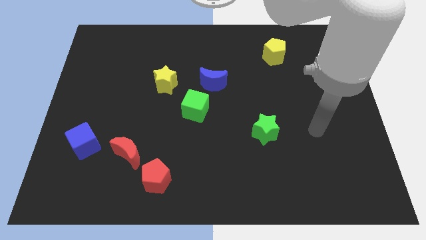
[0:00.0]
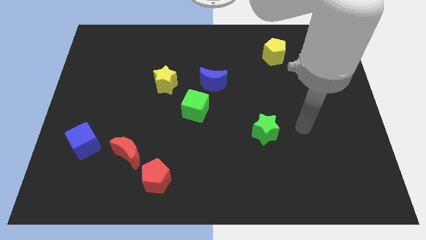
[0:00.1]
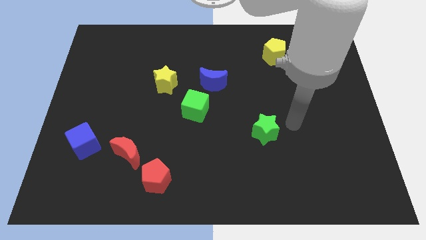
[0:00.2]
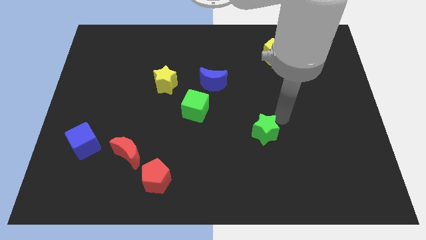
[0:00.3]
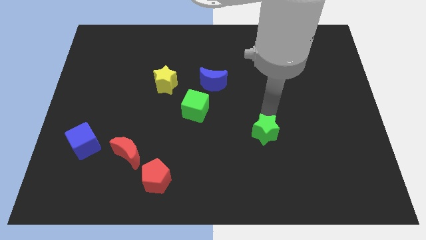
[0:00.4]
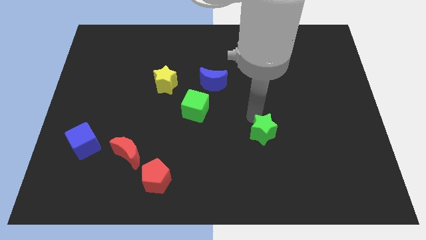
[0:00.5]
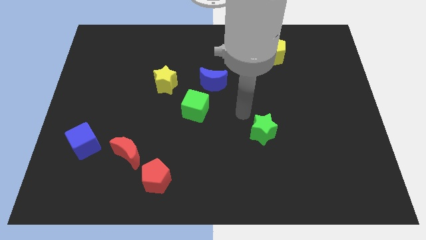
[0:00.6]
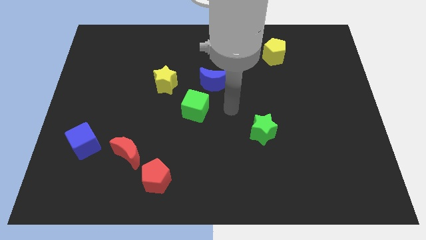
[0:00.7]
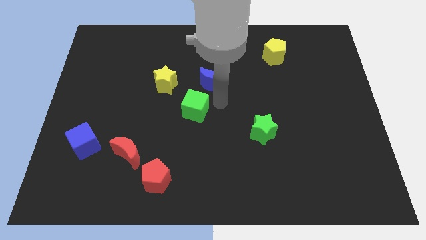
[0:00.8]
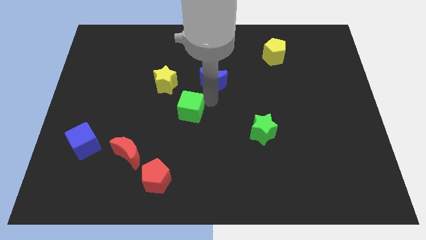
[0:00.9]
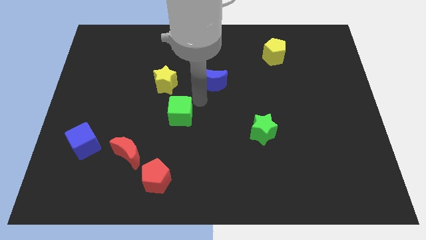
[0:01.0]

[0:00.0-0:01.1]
separate the blue moon from the green cube

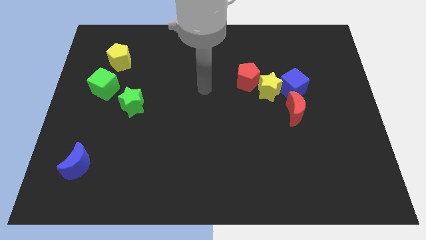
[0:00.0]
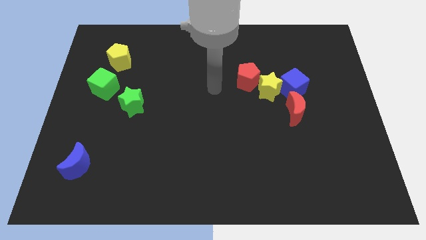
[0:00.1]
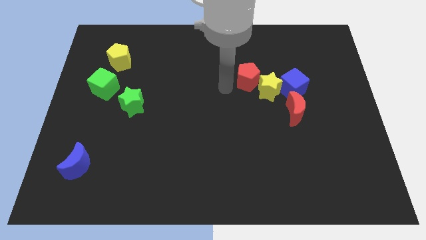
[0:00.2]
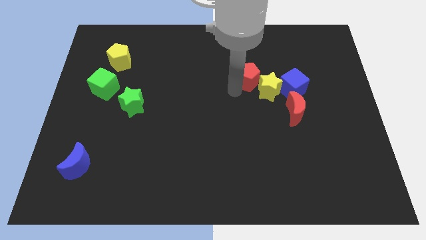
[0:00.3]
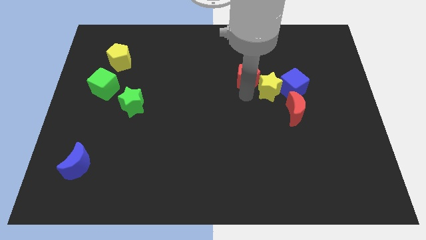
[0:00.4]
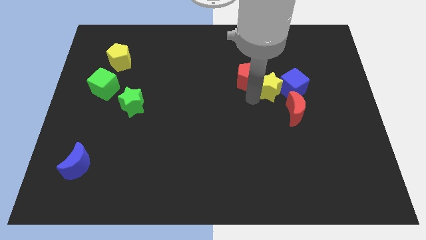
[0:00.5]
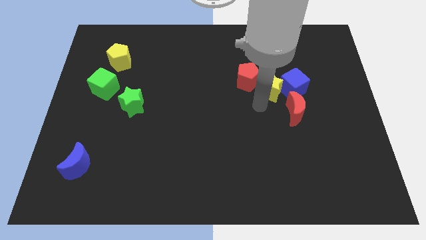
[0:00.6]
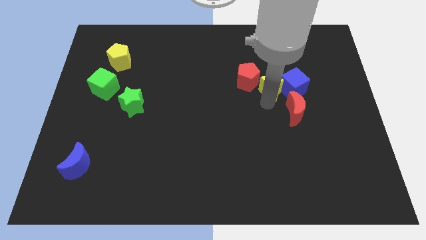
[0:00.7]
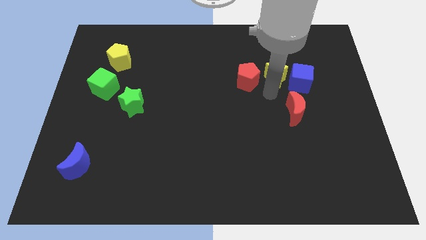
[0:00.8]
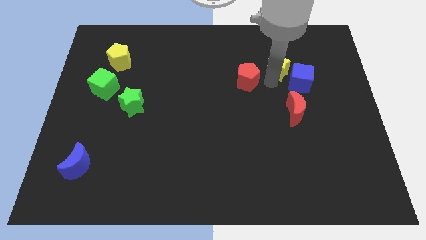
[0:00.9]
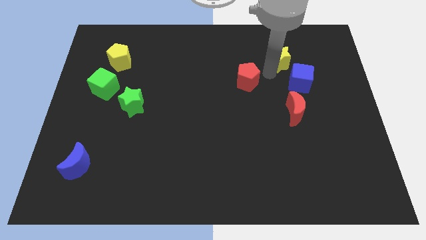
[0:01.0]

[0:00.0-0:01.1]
pull the red pentagon apart from the yellow star

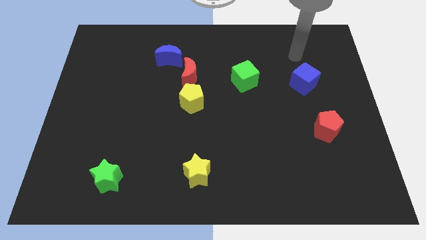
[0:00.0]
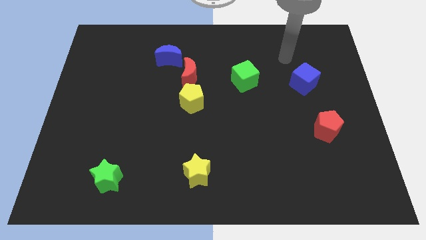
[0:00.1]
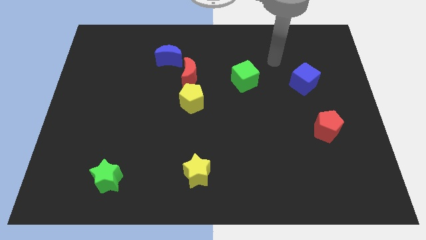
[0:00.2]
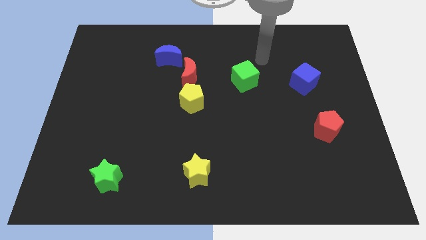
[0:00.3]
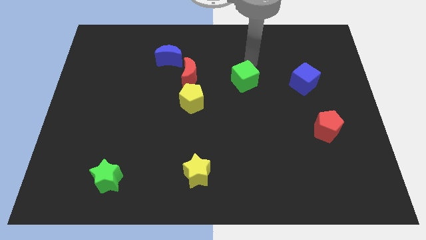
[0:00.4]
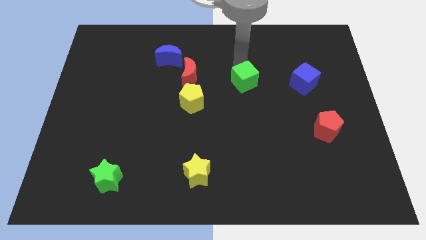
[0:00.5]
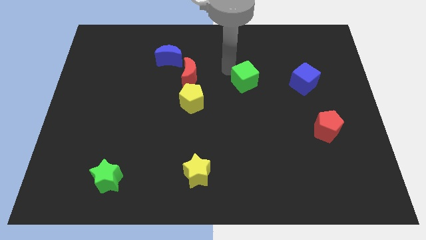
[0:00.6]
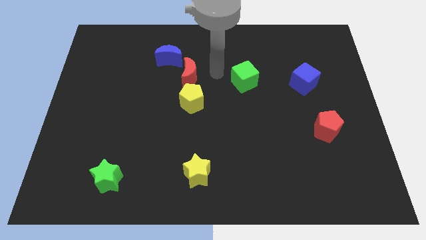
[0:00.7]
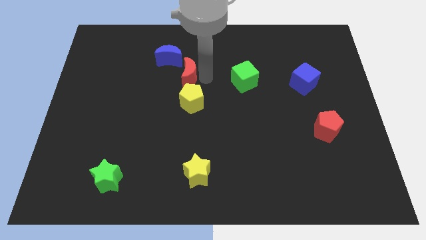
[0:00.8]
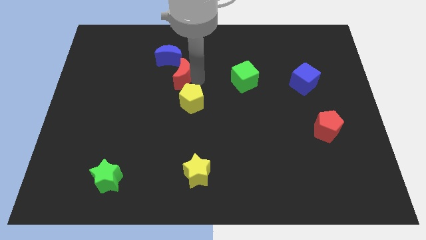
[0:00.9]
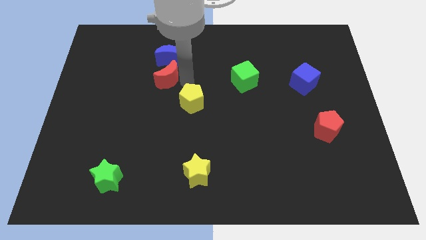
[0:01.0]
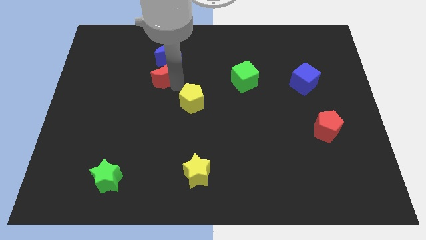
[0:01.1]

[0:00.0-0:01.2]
separate the yellow pentagon from the red moon

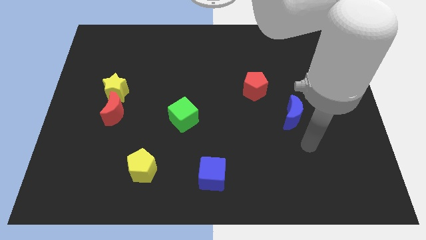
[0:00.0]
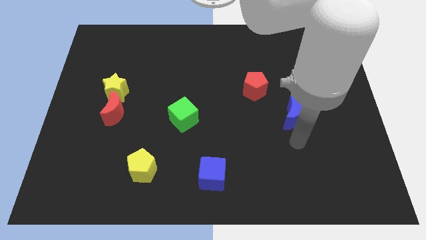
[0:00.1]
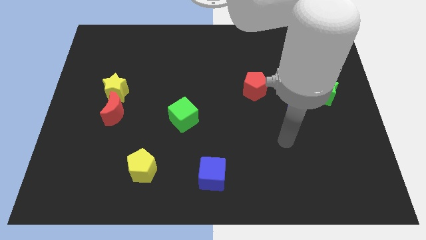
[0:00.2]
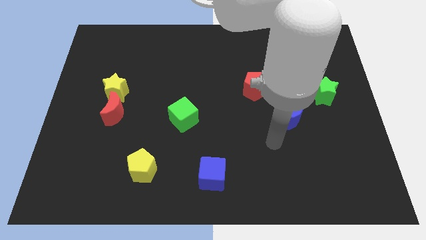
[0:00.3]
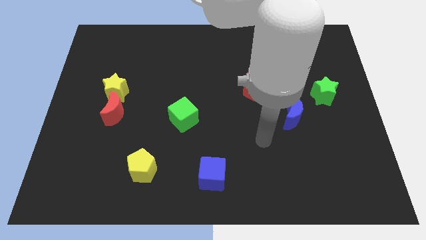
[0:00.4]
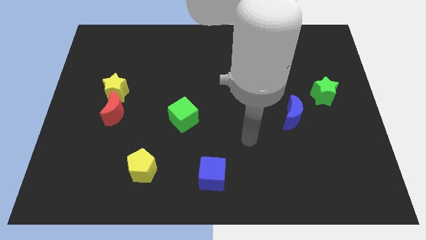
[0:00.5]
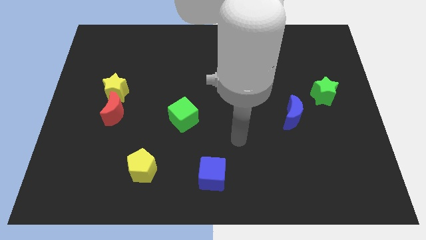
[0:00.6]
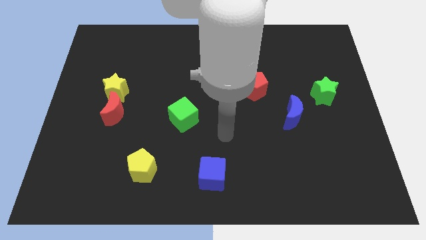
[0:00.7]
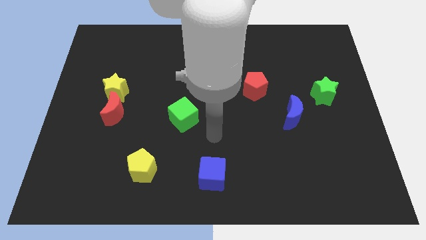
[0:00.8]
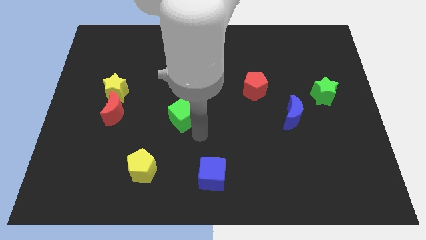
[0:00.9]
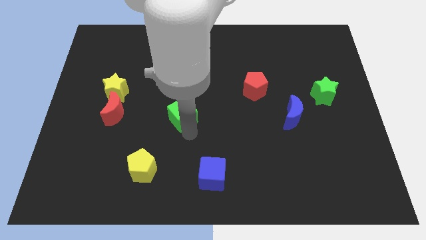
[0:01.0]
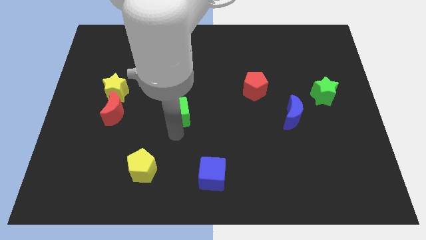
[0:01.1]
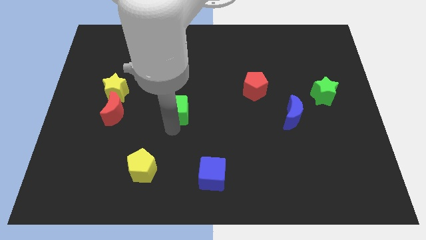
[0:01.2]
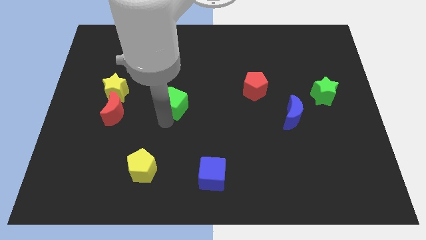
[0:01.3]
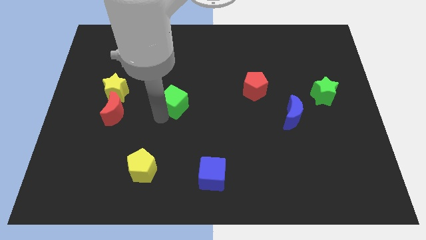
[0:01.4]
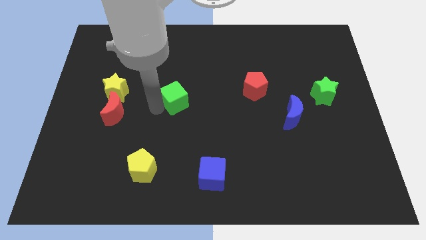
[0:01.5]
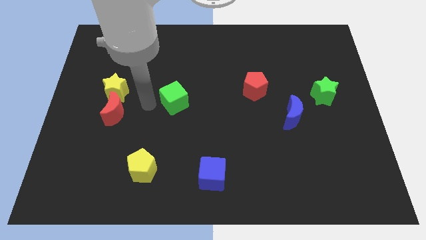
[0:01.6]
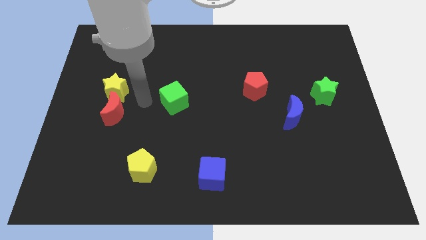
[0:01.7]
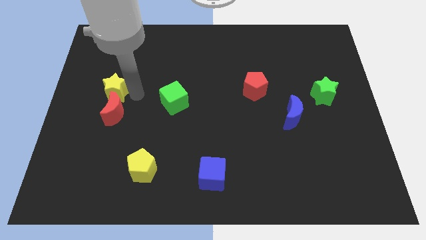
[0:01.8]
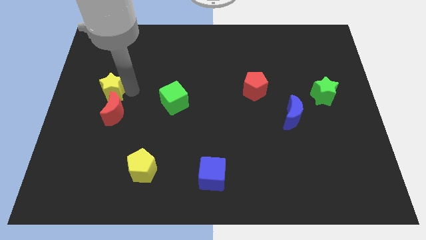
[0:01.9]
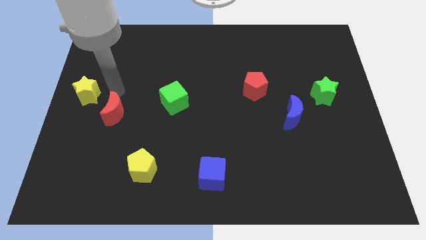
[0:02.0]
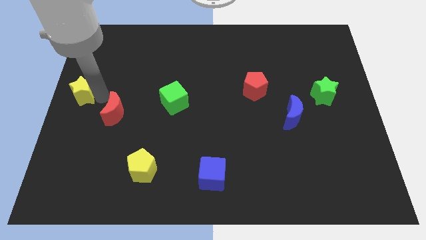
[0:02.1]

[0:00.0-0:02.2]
move the red moon away from the yellow star

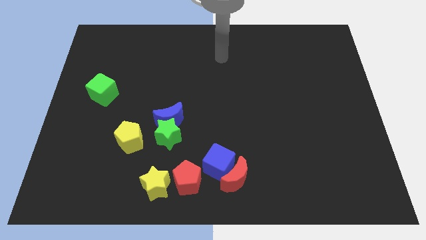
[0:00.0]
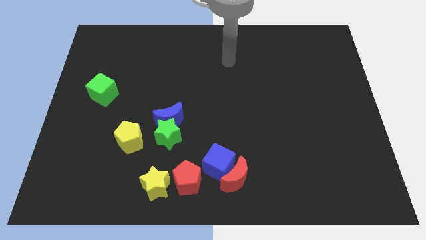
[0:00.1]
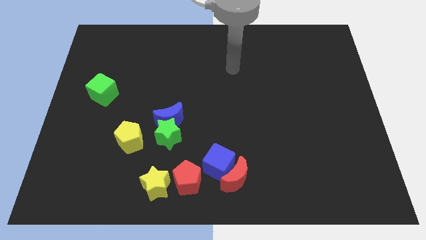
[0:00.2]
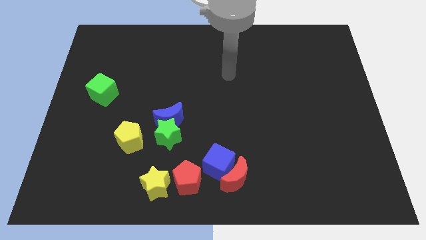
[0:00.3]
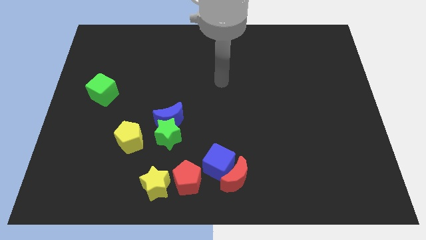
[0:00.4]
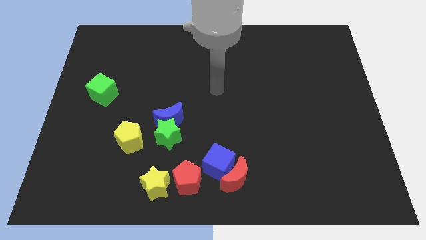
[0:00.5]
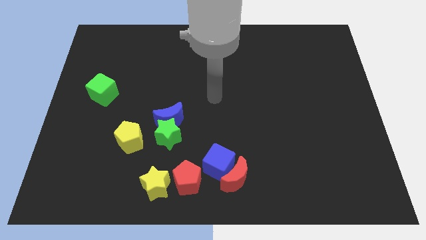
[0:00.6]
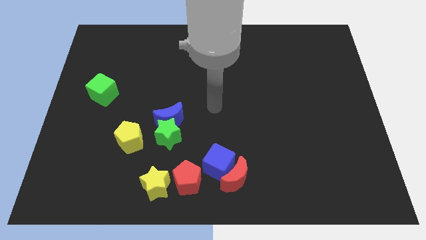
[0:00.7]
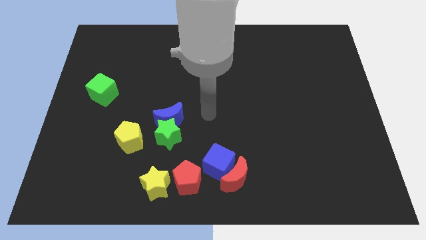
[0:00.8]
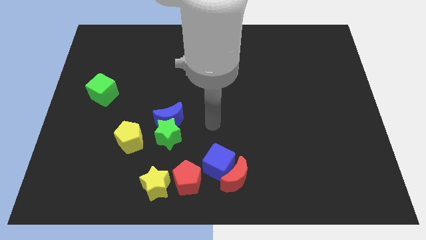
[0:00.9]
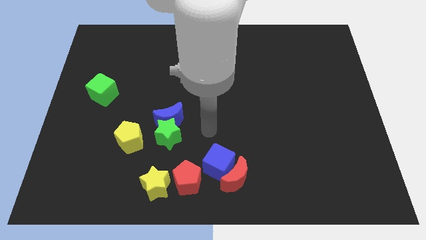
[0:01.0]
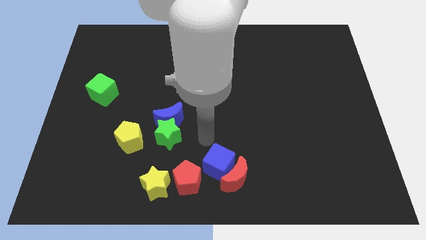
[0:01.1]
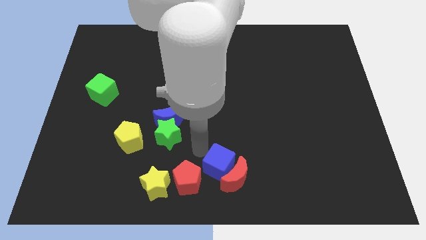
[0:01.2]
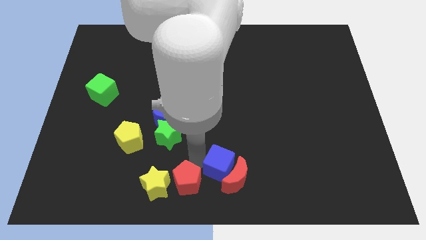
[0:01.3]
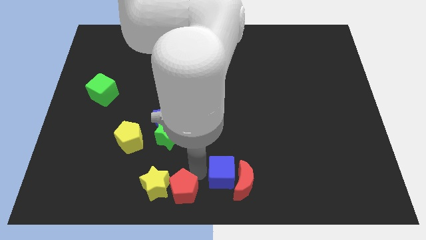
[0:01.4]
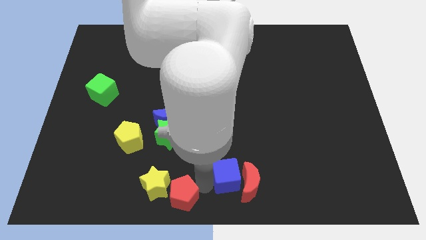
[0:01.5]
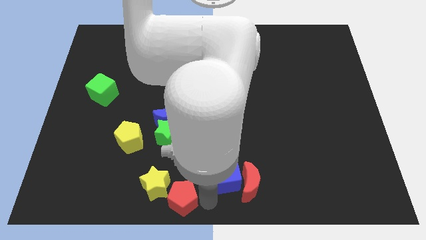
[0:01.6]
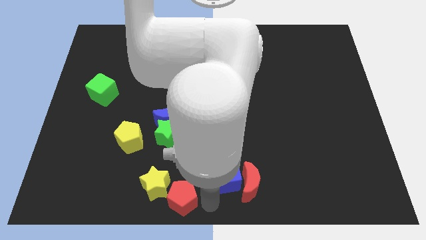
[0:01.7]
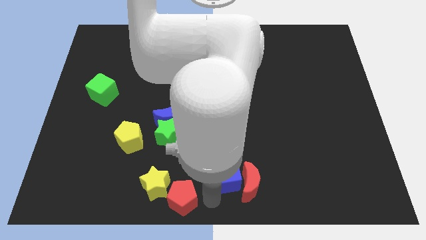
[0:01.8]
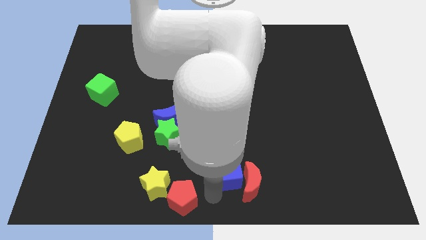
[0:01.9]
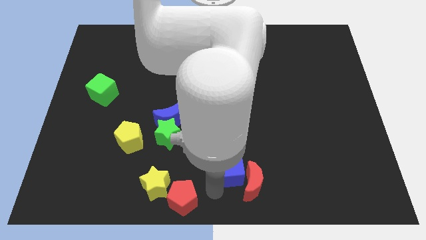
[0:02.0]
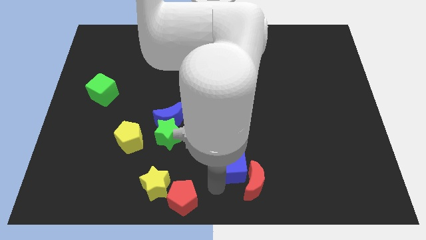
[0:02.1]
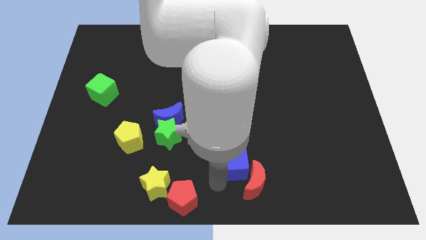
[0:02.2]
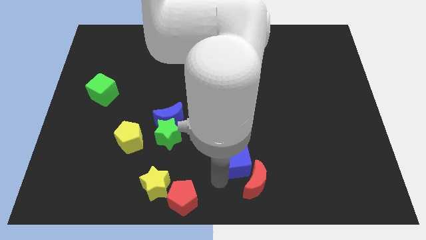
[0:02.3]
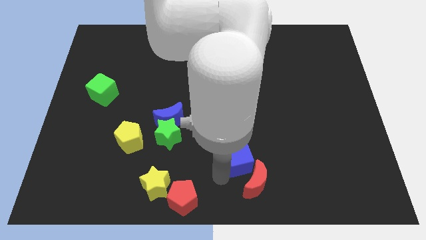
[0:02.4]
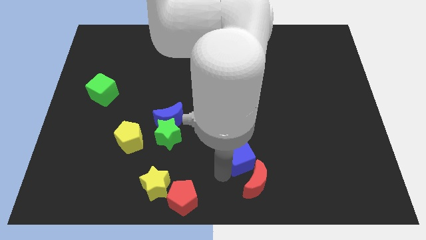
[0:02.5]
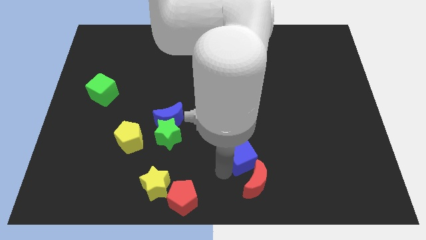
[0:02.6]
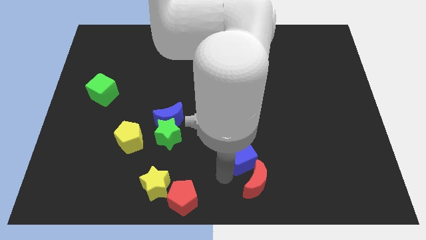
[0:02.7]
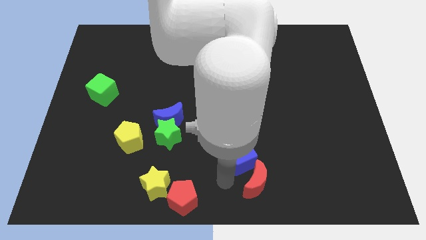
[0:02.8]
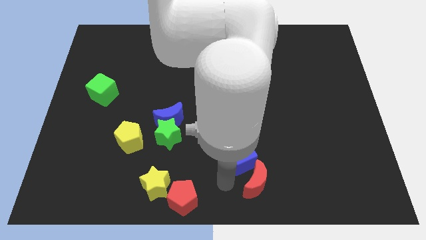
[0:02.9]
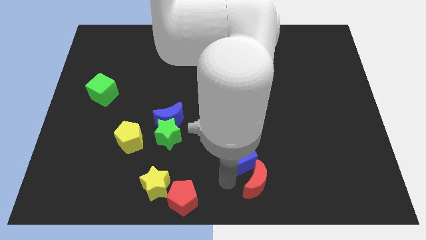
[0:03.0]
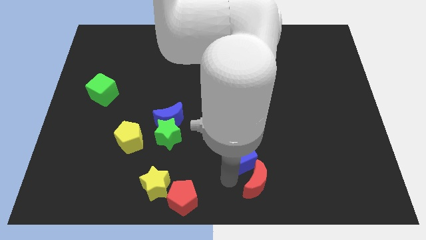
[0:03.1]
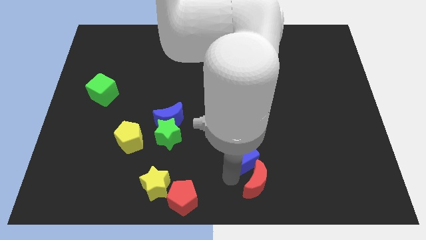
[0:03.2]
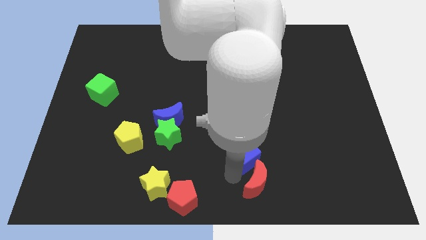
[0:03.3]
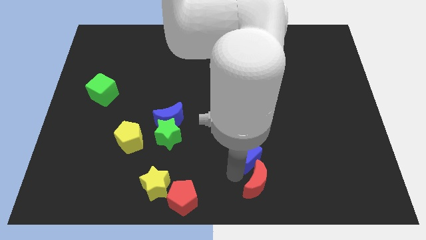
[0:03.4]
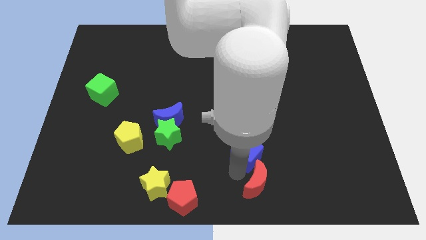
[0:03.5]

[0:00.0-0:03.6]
move the blue cube away from the red moon and red pentagon
